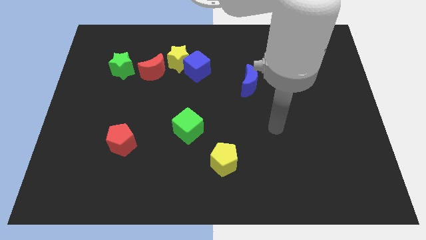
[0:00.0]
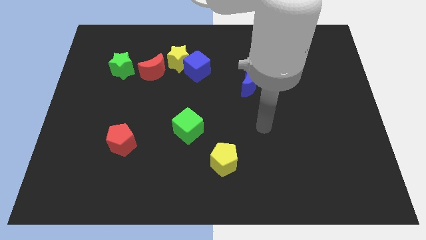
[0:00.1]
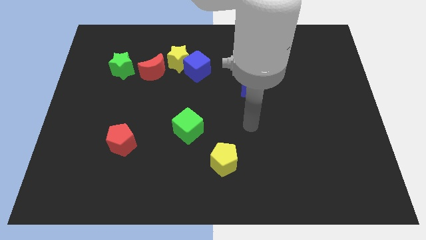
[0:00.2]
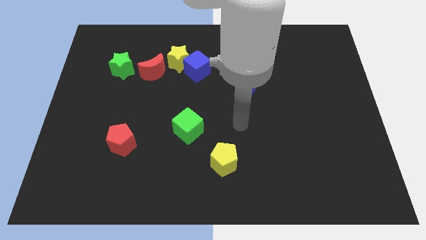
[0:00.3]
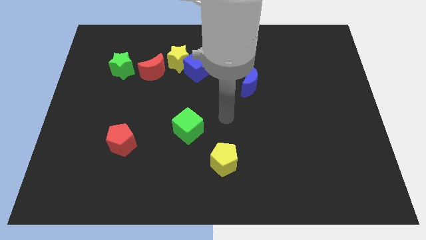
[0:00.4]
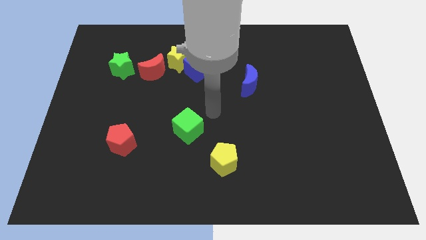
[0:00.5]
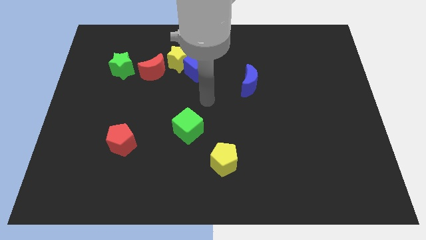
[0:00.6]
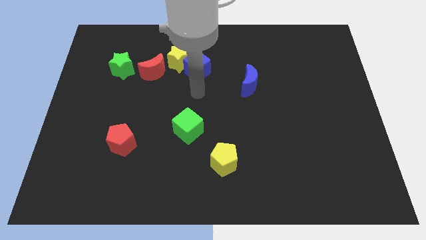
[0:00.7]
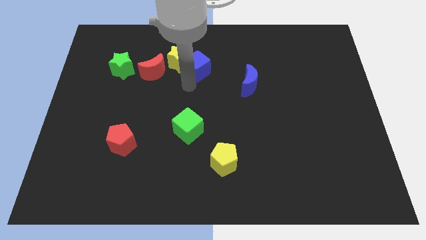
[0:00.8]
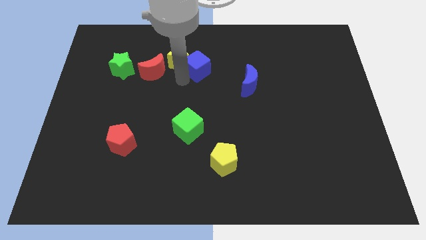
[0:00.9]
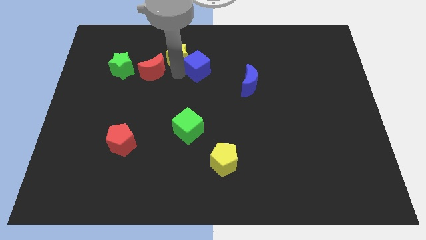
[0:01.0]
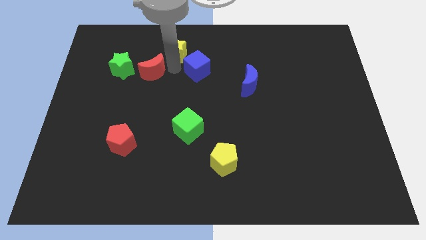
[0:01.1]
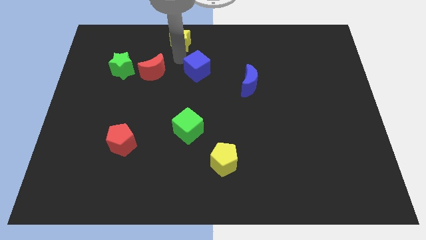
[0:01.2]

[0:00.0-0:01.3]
separate the blue cube from the yellow star

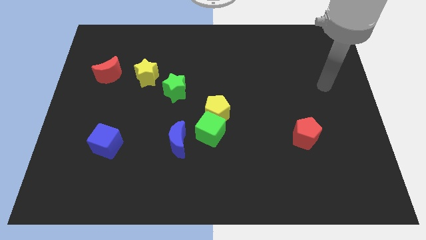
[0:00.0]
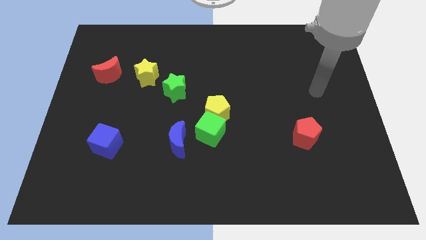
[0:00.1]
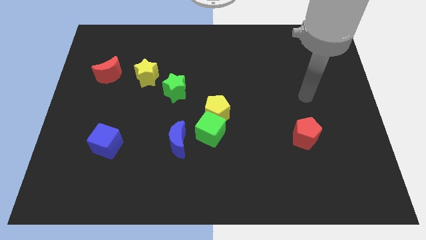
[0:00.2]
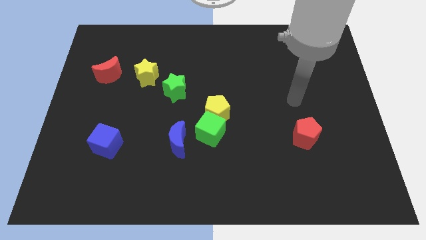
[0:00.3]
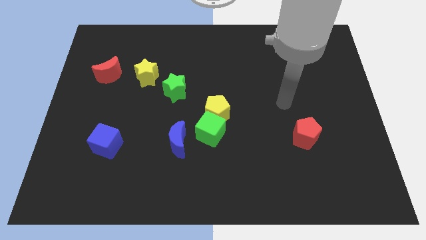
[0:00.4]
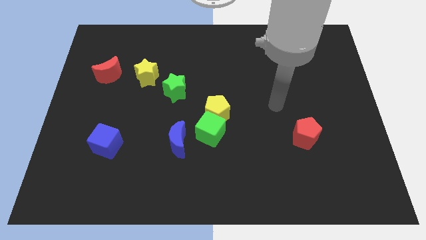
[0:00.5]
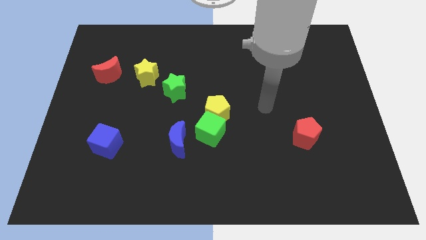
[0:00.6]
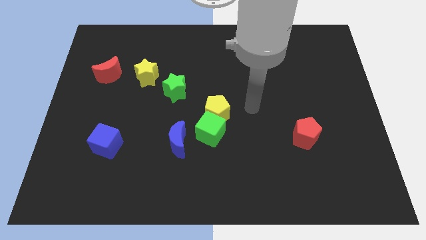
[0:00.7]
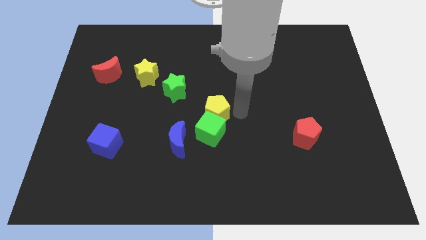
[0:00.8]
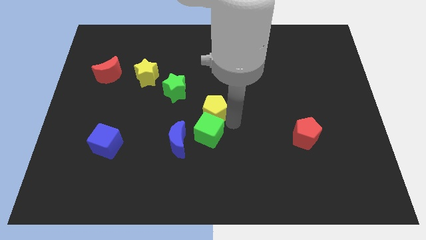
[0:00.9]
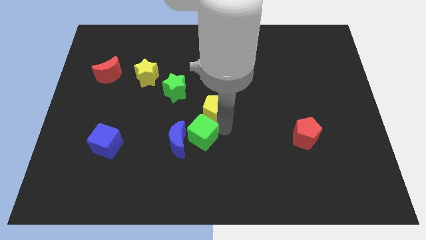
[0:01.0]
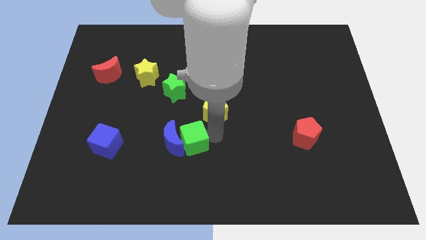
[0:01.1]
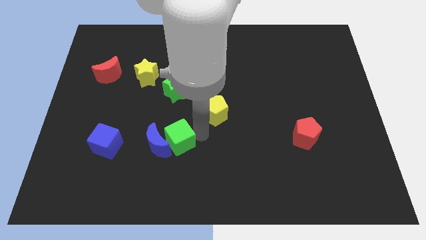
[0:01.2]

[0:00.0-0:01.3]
move the yellow pentagon away from the green cube

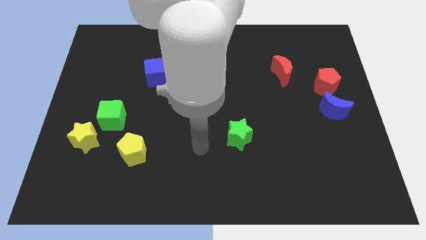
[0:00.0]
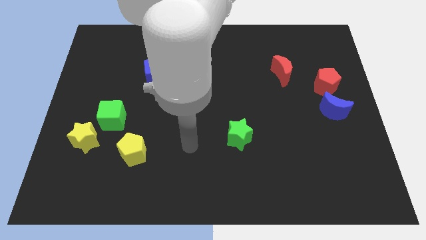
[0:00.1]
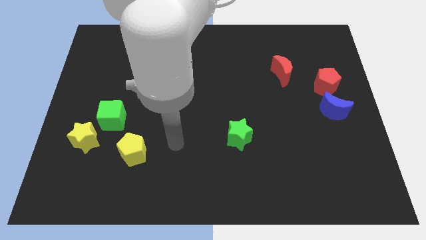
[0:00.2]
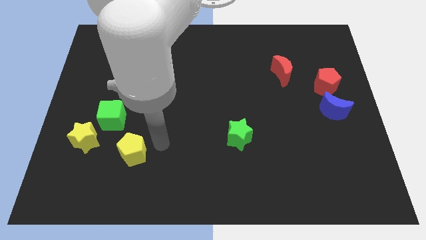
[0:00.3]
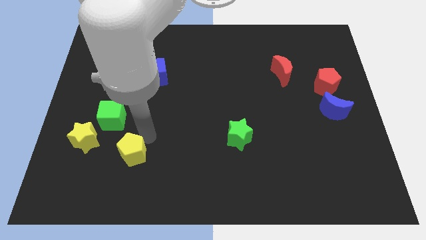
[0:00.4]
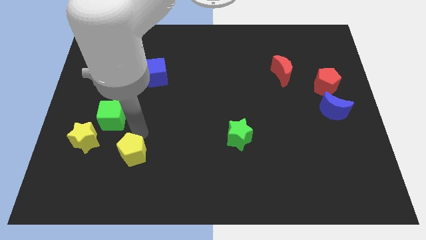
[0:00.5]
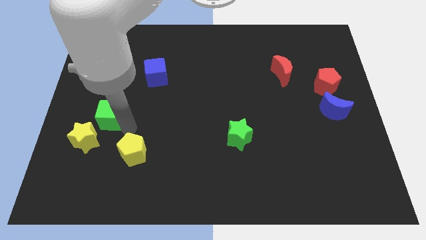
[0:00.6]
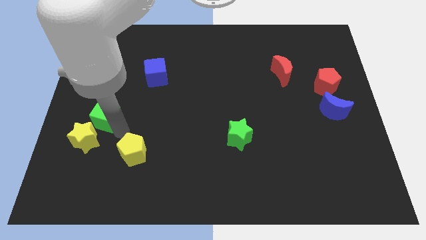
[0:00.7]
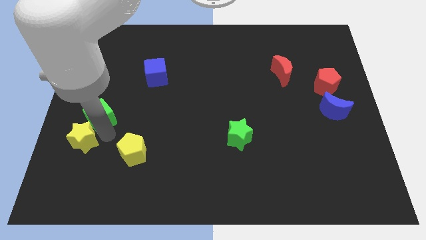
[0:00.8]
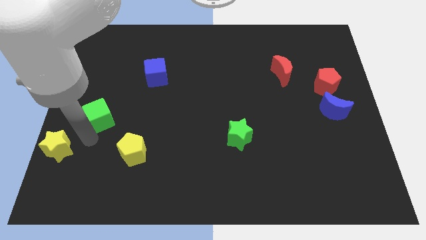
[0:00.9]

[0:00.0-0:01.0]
pull the green cube apart from the yellow star

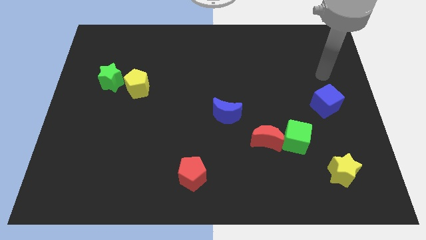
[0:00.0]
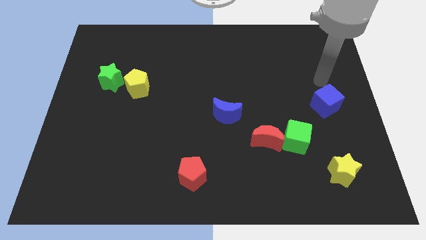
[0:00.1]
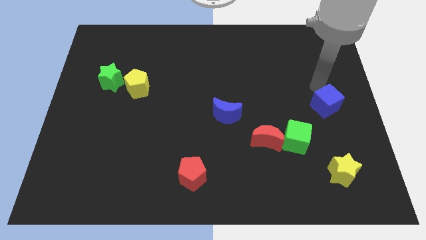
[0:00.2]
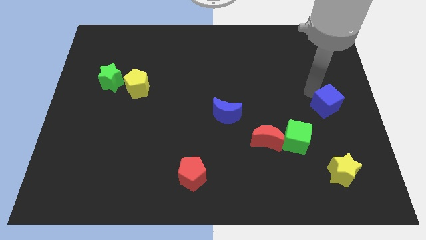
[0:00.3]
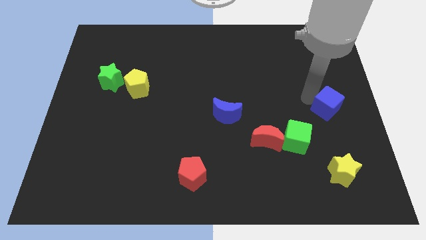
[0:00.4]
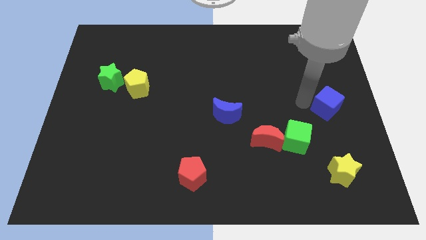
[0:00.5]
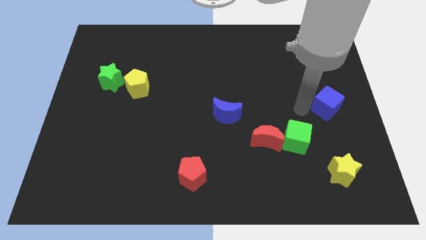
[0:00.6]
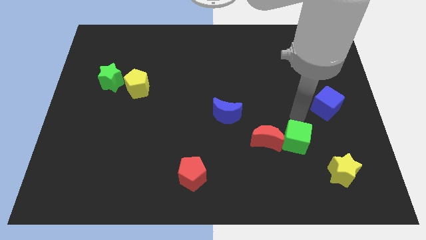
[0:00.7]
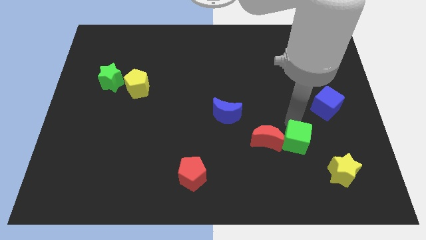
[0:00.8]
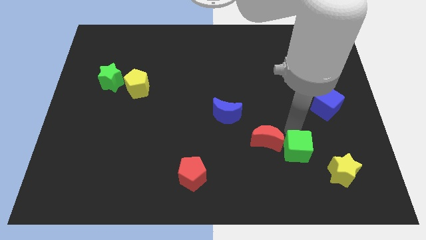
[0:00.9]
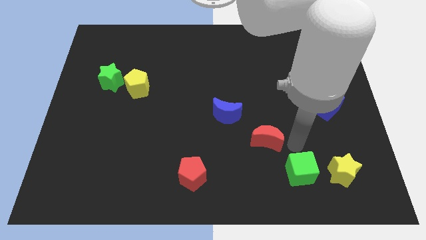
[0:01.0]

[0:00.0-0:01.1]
pull the red moon apart from the green cube

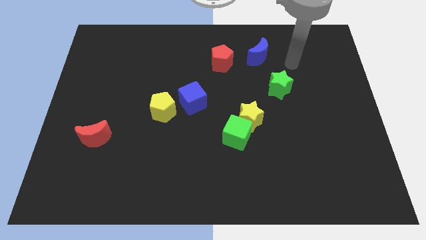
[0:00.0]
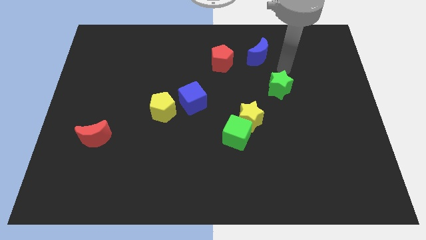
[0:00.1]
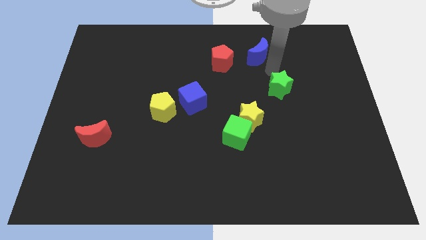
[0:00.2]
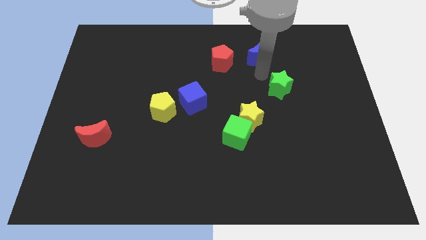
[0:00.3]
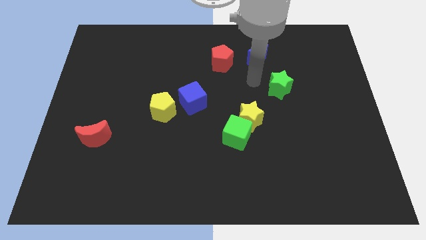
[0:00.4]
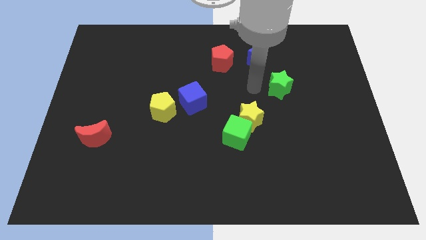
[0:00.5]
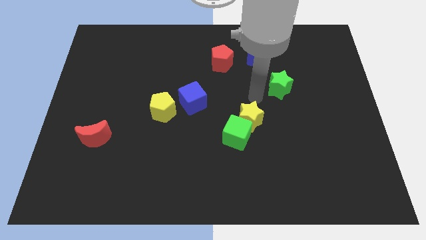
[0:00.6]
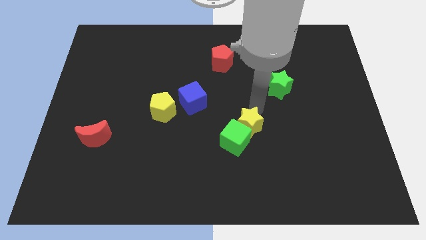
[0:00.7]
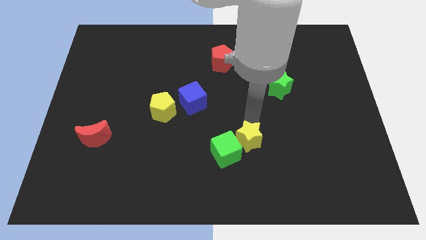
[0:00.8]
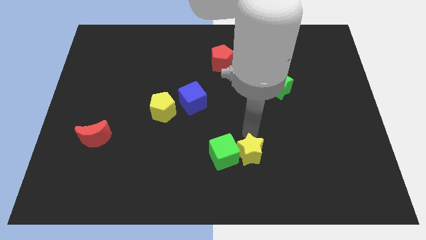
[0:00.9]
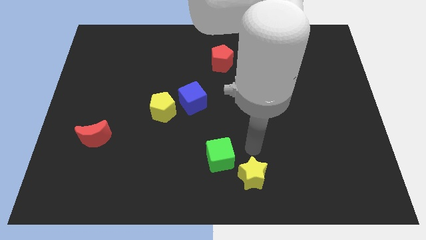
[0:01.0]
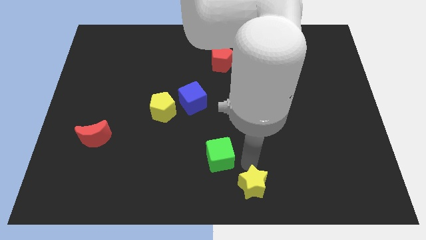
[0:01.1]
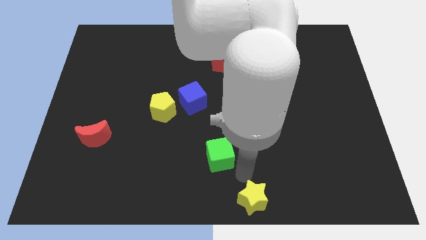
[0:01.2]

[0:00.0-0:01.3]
separate the green cube from the yellow star

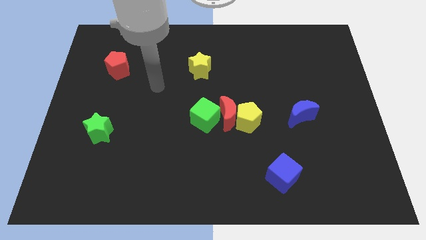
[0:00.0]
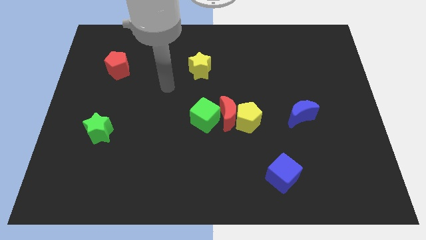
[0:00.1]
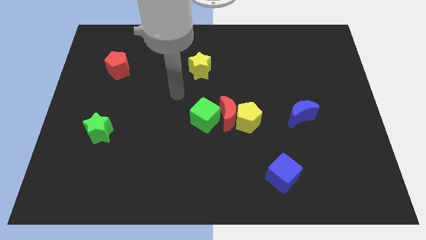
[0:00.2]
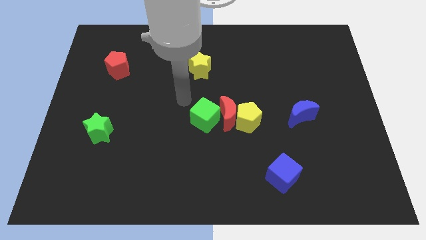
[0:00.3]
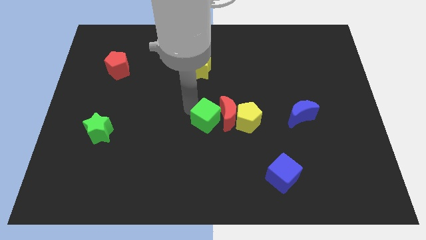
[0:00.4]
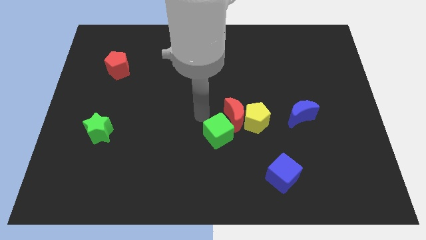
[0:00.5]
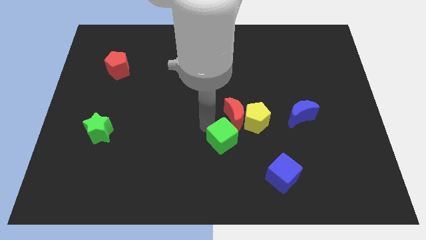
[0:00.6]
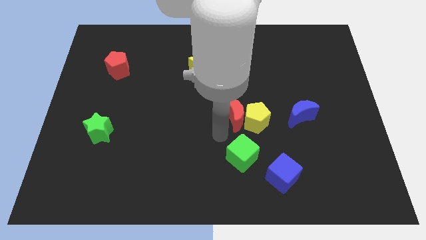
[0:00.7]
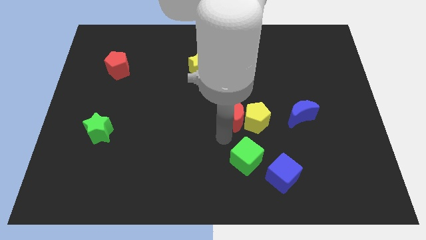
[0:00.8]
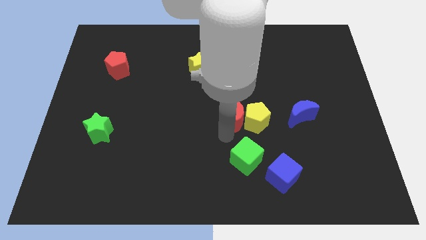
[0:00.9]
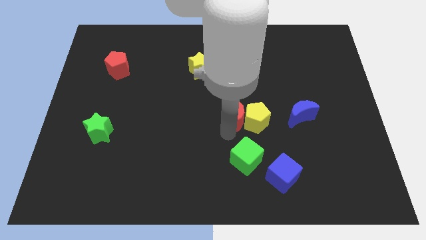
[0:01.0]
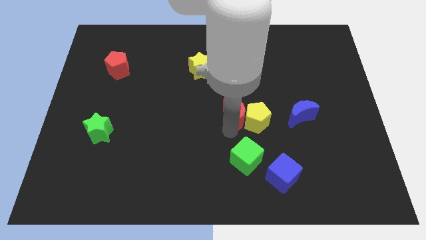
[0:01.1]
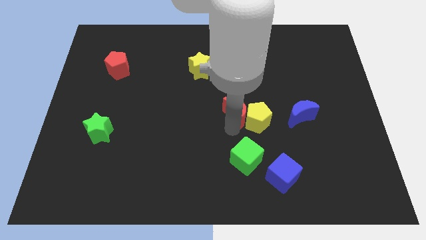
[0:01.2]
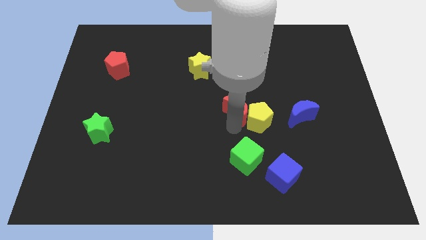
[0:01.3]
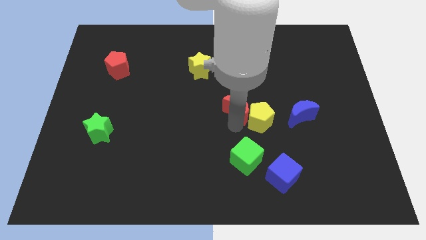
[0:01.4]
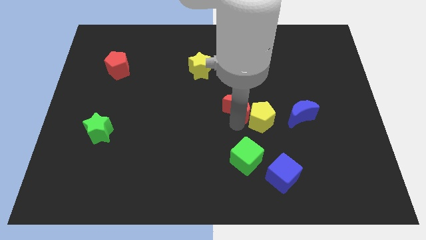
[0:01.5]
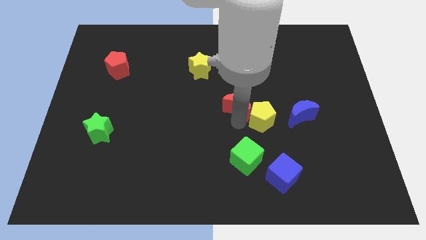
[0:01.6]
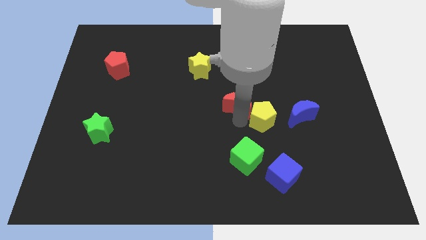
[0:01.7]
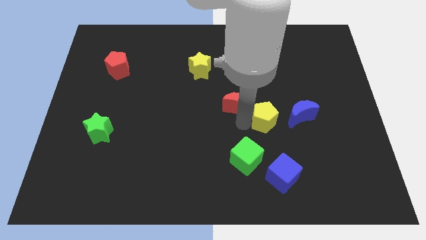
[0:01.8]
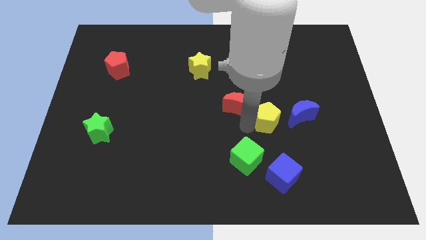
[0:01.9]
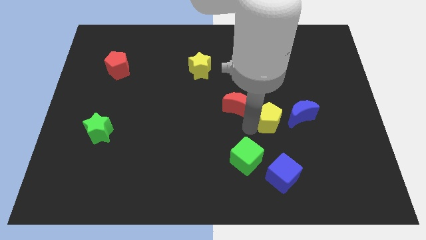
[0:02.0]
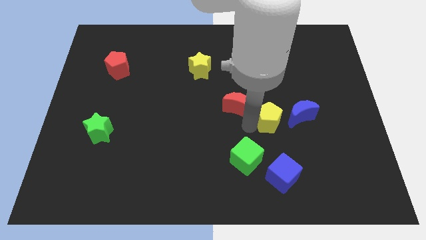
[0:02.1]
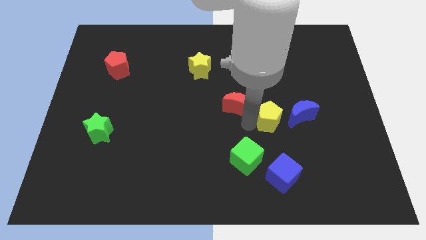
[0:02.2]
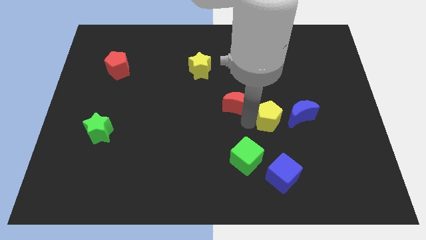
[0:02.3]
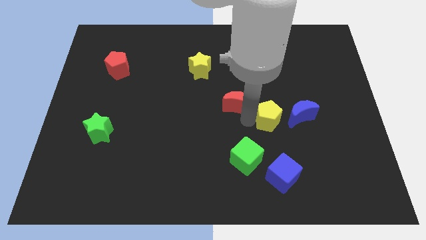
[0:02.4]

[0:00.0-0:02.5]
pull the red moon apart from the yellow pentagon and green cube

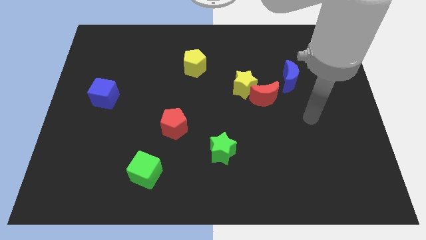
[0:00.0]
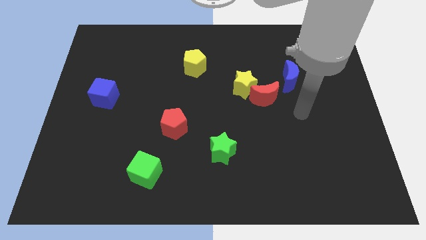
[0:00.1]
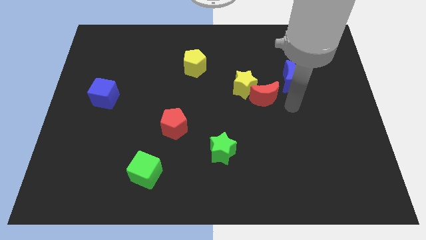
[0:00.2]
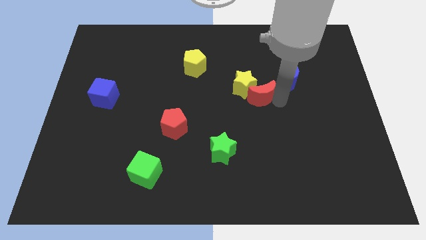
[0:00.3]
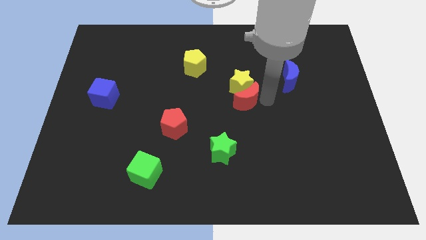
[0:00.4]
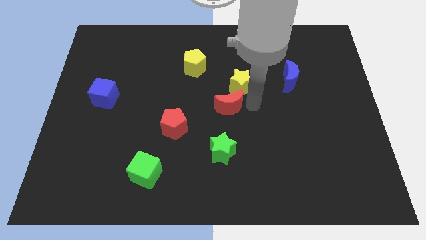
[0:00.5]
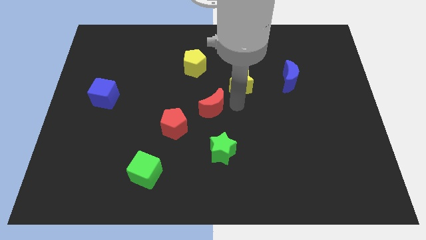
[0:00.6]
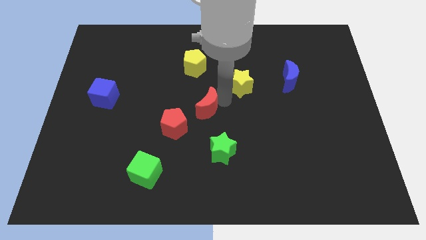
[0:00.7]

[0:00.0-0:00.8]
pull the yellow star apart from the red moon
